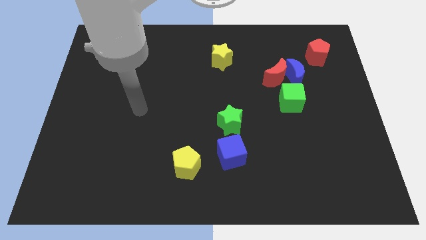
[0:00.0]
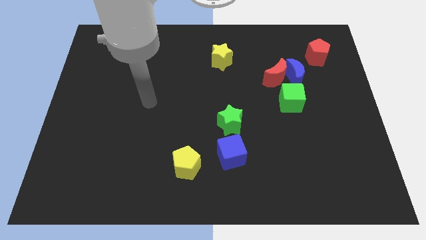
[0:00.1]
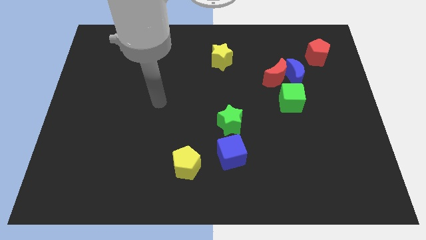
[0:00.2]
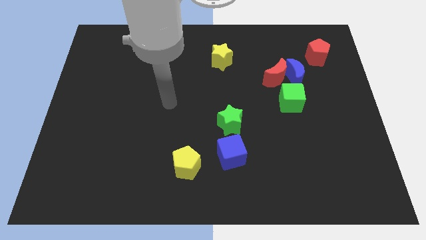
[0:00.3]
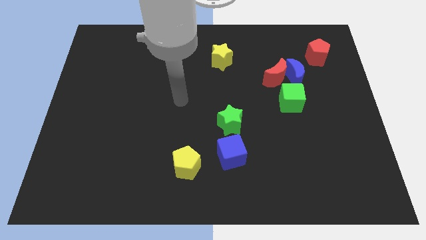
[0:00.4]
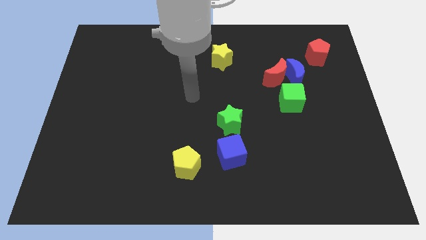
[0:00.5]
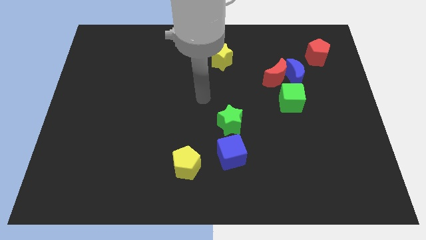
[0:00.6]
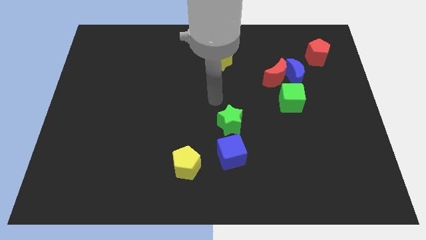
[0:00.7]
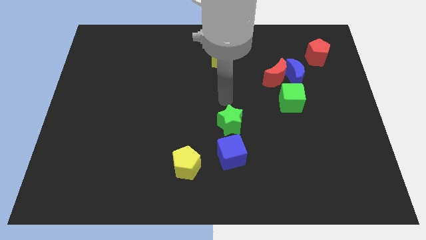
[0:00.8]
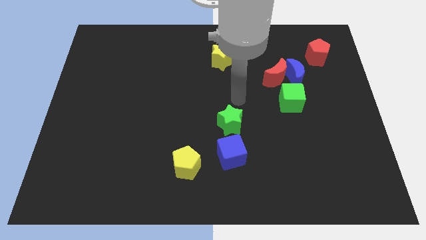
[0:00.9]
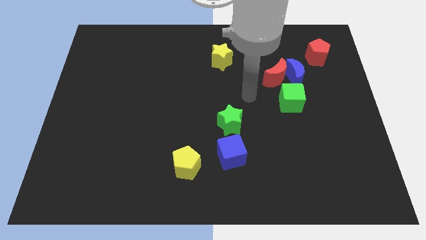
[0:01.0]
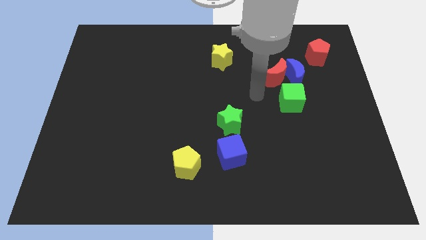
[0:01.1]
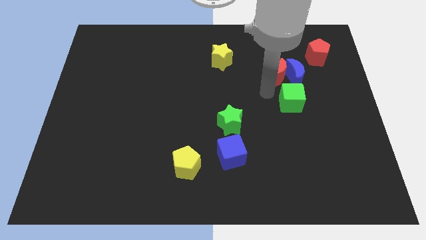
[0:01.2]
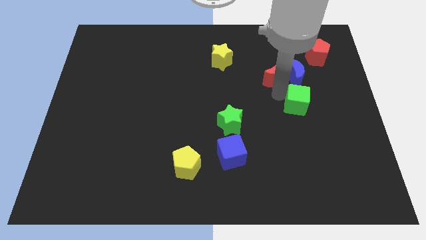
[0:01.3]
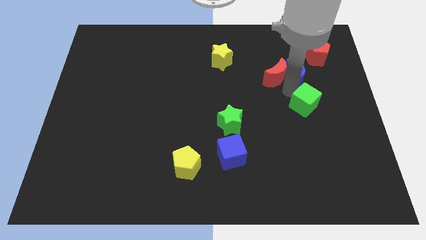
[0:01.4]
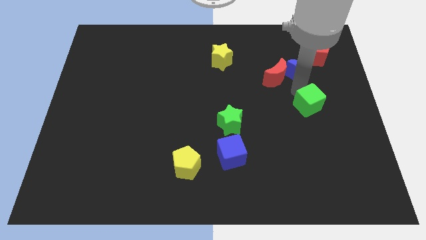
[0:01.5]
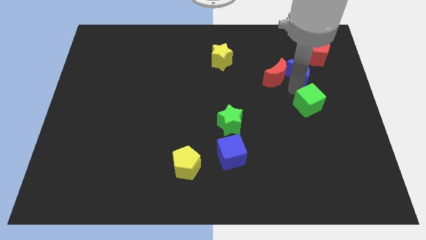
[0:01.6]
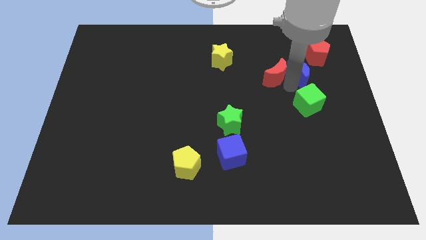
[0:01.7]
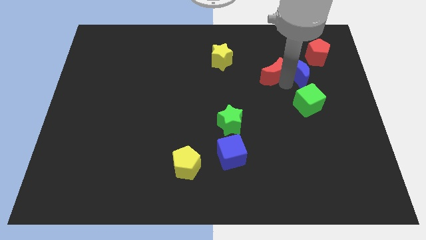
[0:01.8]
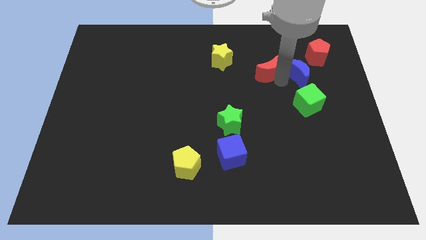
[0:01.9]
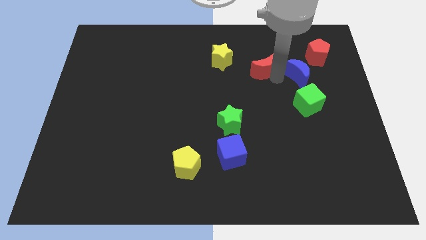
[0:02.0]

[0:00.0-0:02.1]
pull the red moon apart from the blue moon and green cube

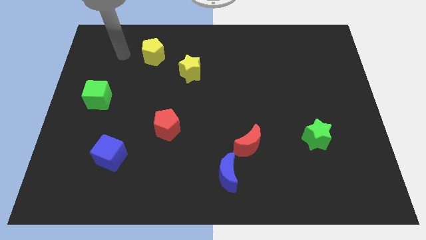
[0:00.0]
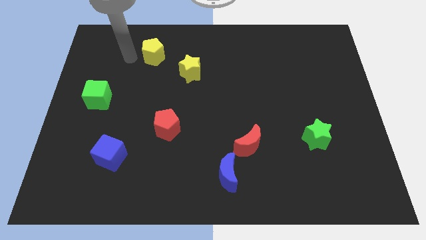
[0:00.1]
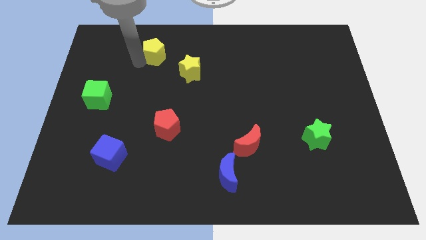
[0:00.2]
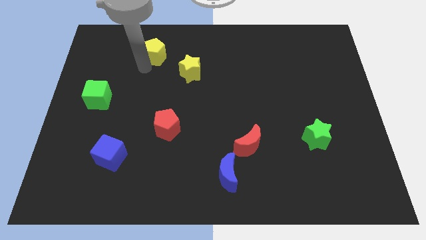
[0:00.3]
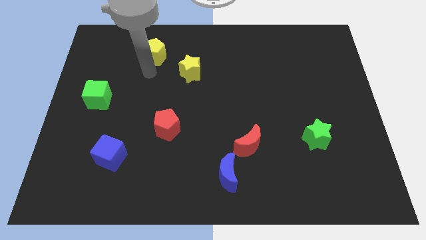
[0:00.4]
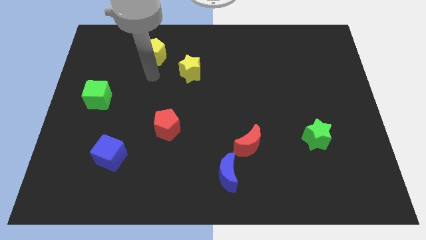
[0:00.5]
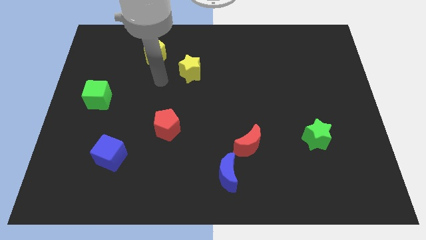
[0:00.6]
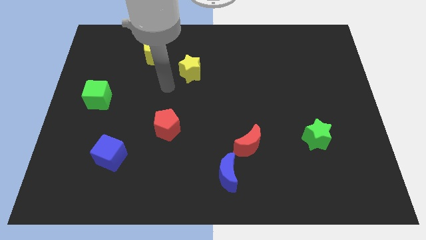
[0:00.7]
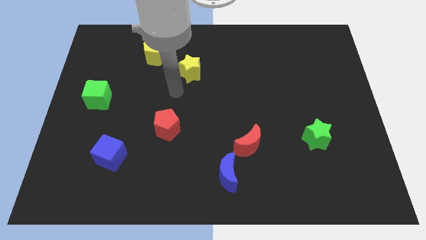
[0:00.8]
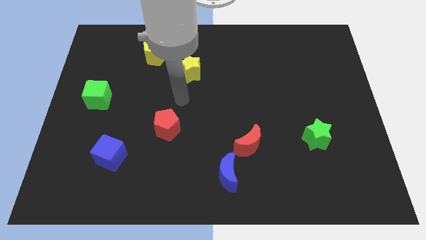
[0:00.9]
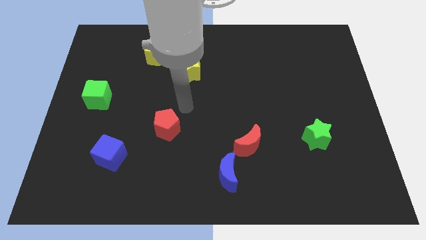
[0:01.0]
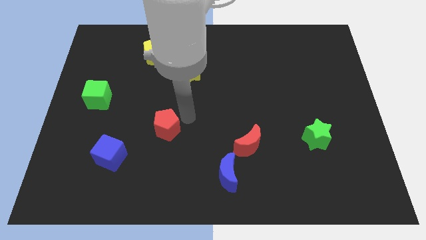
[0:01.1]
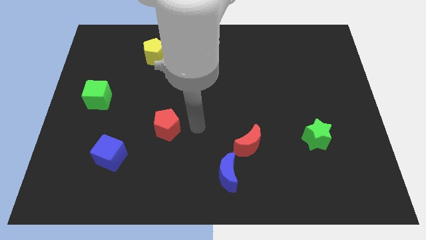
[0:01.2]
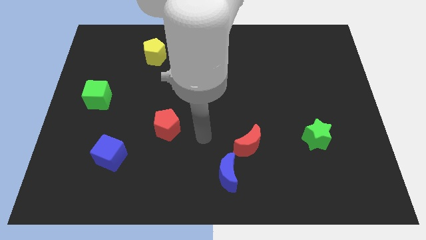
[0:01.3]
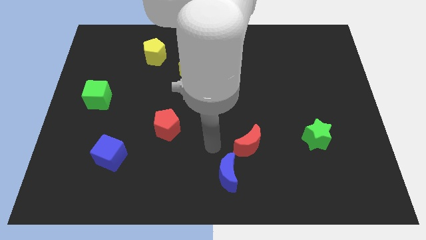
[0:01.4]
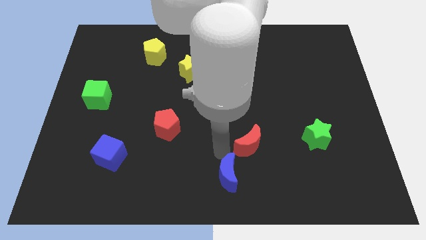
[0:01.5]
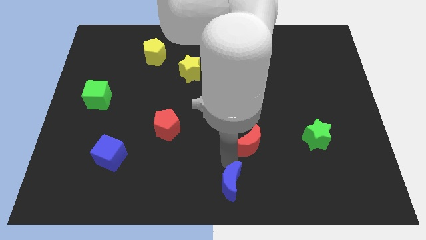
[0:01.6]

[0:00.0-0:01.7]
move the red moon away from the blue moon

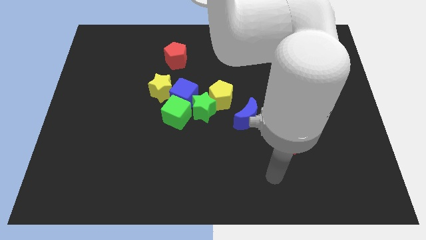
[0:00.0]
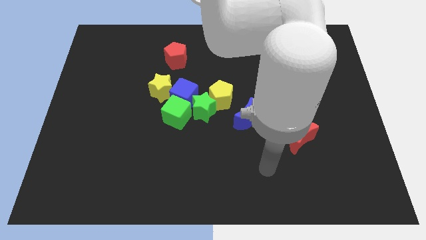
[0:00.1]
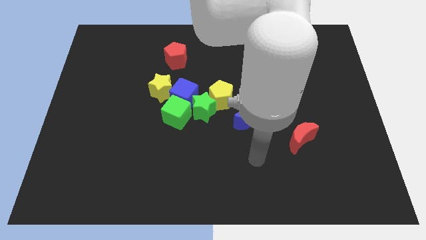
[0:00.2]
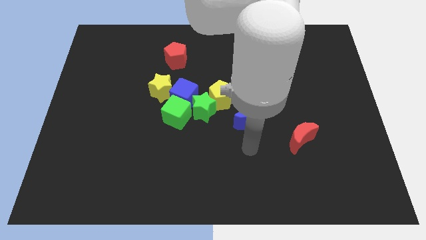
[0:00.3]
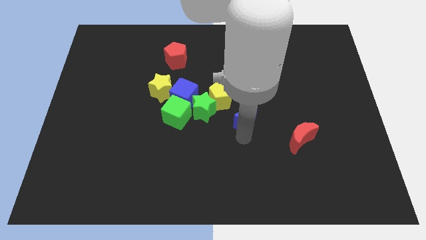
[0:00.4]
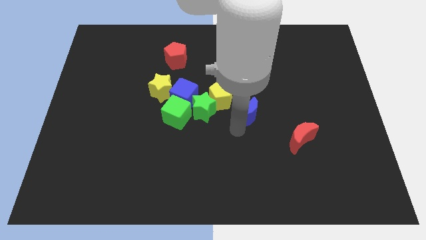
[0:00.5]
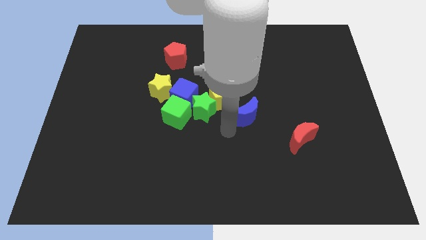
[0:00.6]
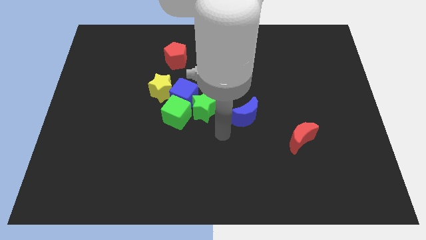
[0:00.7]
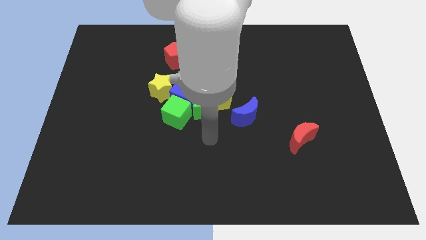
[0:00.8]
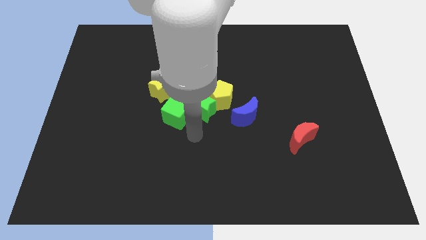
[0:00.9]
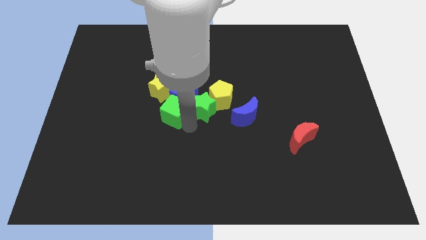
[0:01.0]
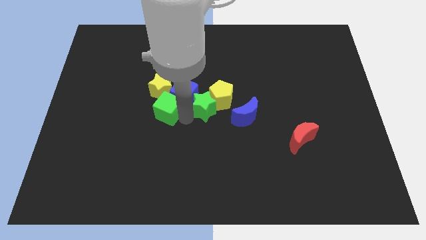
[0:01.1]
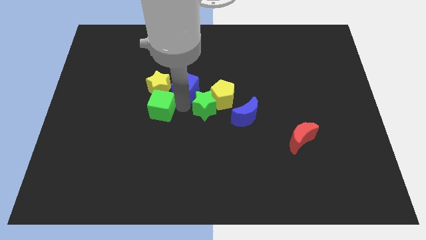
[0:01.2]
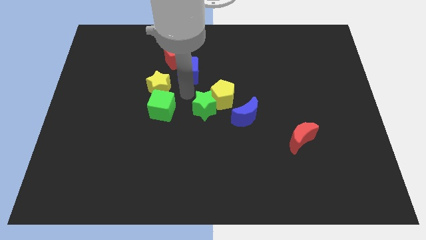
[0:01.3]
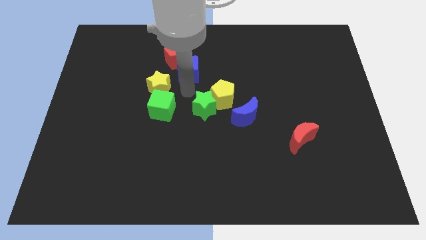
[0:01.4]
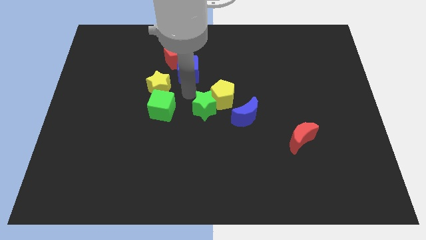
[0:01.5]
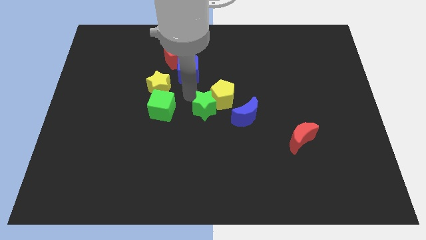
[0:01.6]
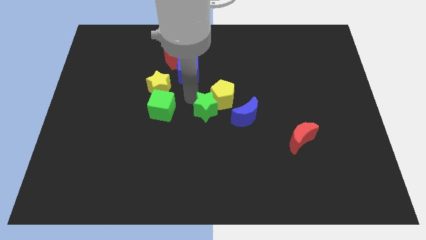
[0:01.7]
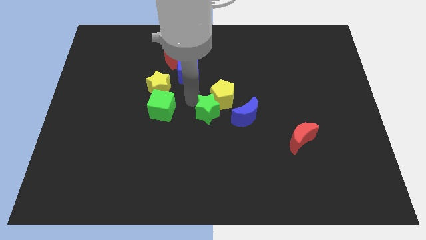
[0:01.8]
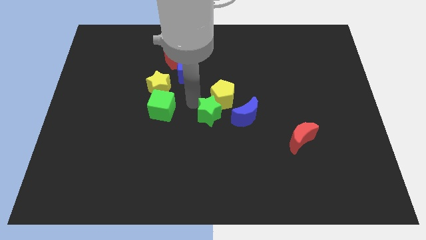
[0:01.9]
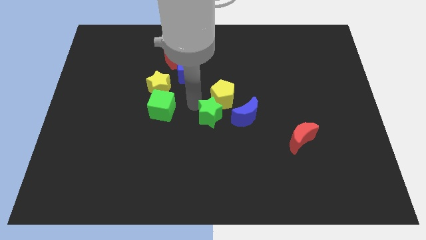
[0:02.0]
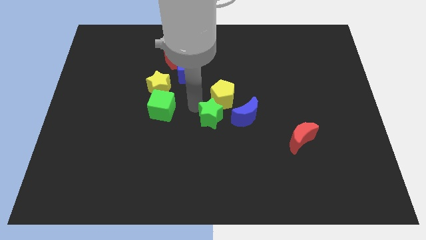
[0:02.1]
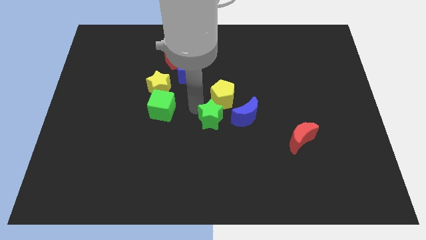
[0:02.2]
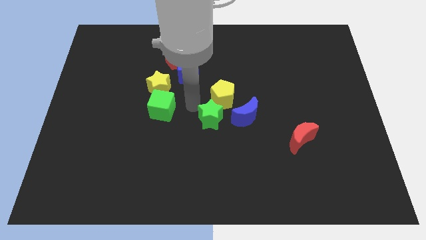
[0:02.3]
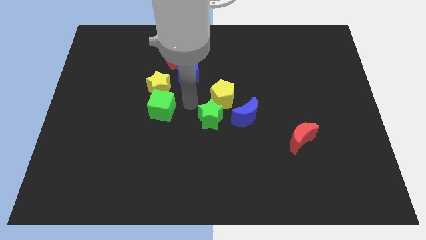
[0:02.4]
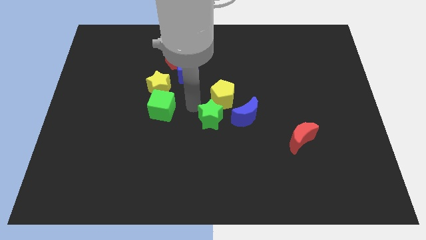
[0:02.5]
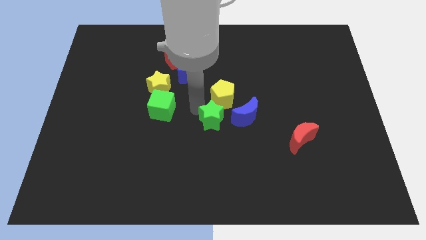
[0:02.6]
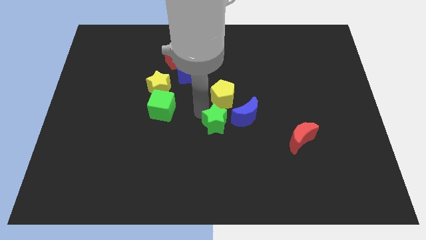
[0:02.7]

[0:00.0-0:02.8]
move the green star away from the yellow pentagon, blue cube, and green cube

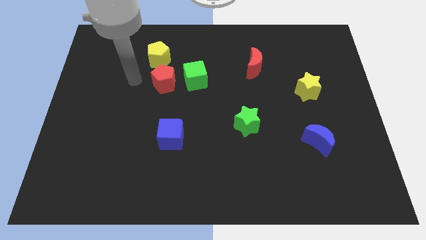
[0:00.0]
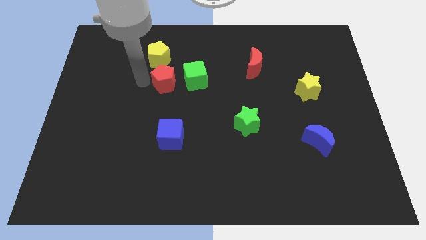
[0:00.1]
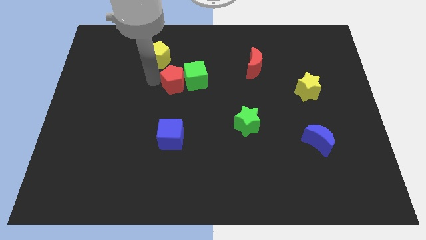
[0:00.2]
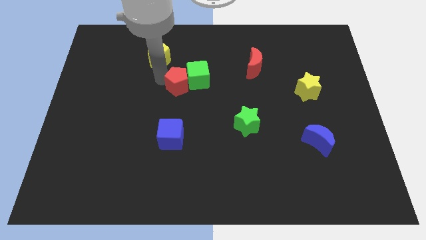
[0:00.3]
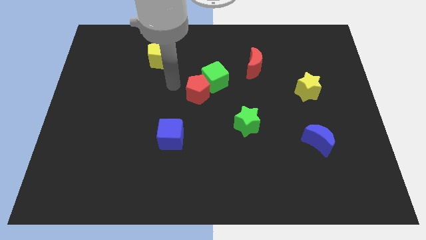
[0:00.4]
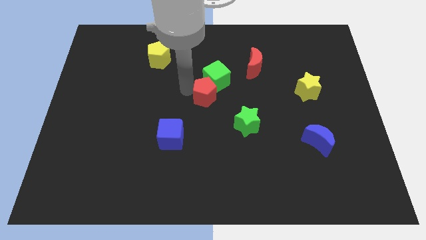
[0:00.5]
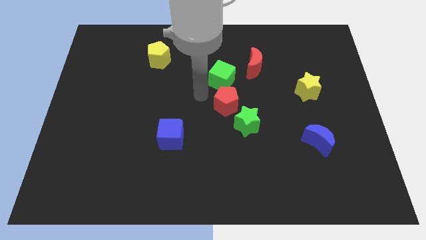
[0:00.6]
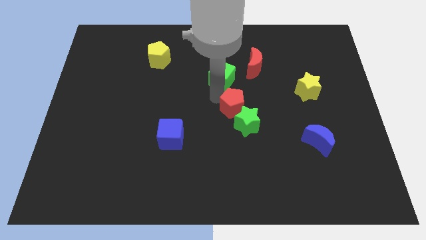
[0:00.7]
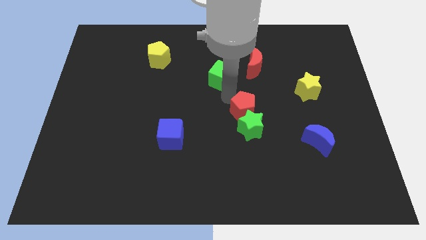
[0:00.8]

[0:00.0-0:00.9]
separate the green cube from the red pentagon

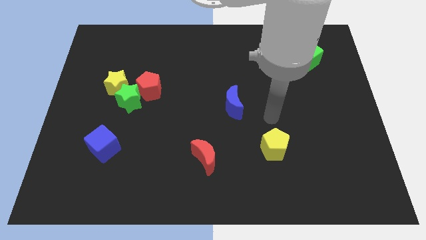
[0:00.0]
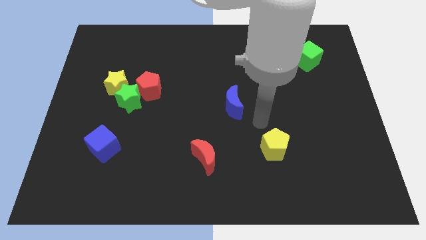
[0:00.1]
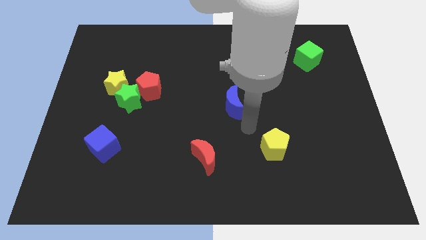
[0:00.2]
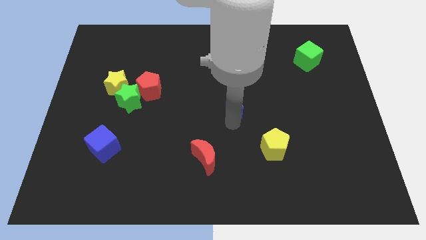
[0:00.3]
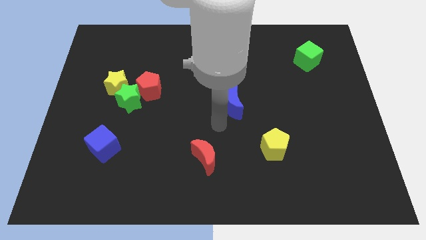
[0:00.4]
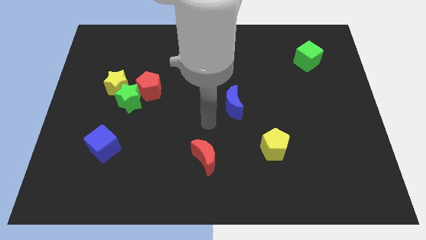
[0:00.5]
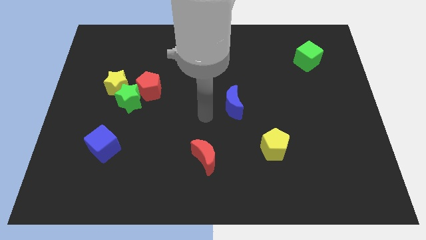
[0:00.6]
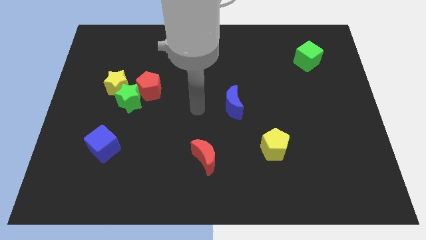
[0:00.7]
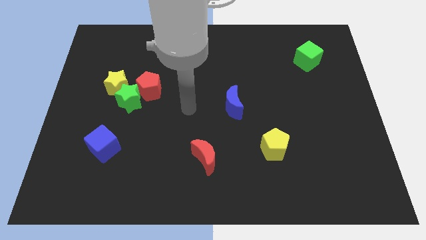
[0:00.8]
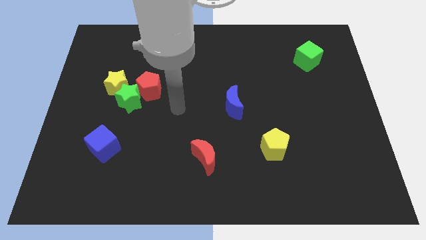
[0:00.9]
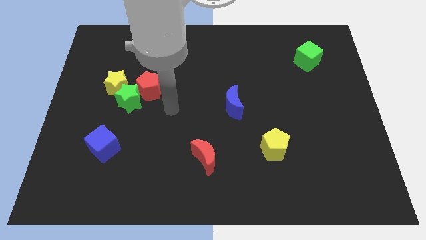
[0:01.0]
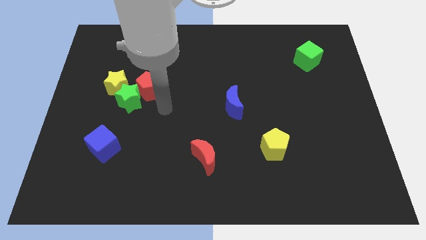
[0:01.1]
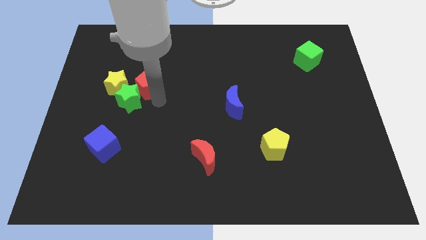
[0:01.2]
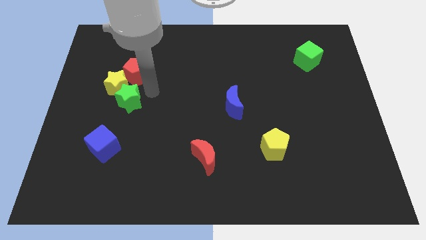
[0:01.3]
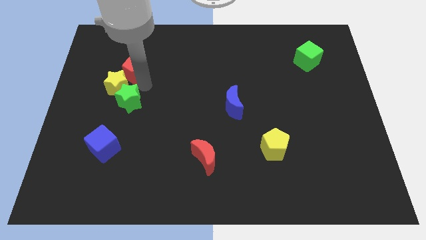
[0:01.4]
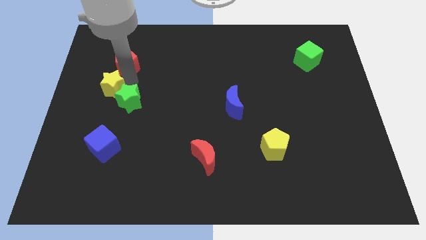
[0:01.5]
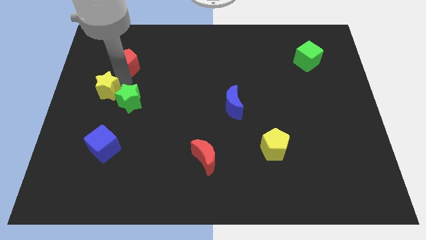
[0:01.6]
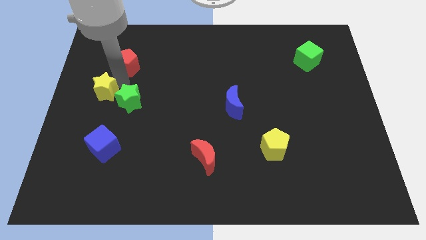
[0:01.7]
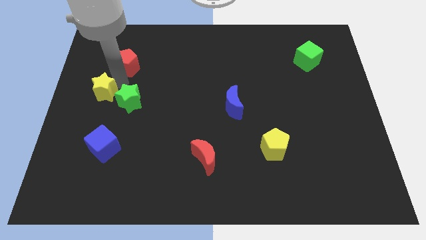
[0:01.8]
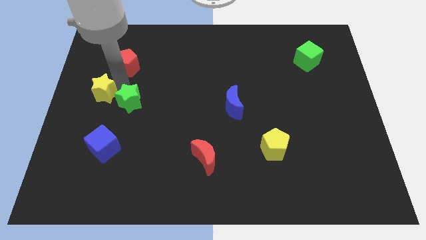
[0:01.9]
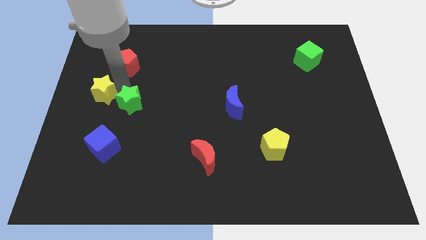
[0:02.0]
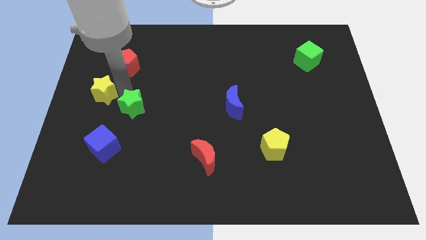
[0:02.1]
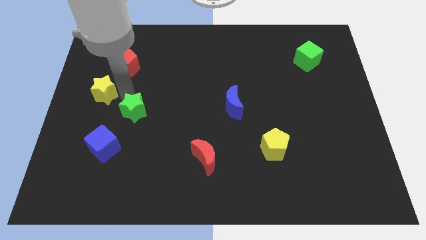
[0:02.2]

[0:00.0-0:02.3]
pull the green star apart from the yellow star and red pentagon
